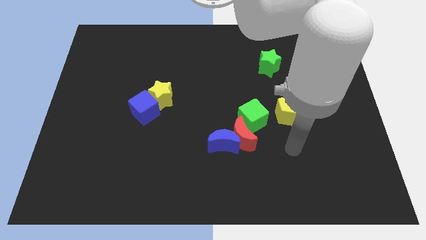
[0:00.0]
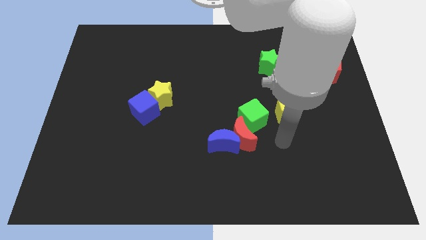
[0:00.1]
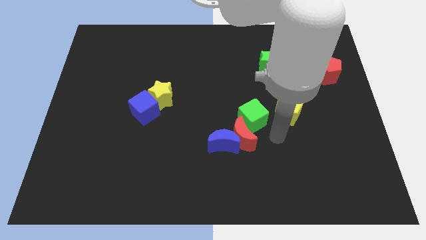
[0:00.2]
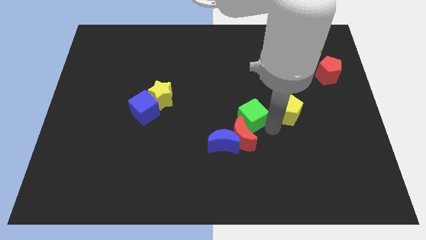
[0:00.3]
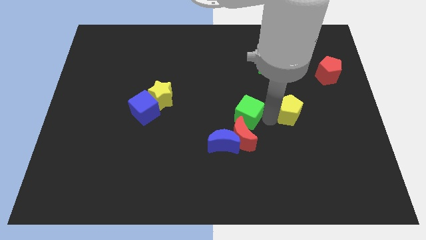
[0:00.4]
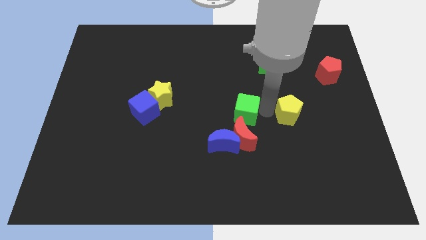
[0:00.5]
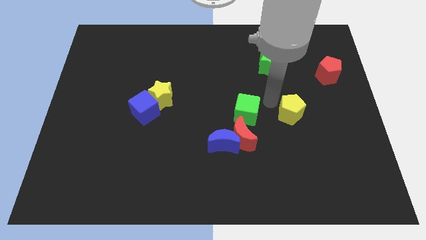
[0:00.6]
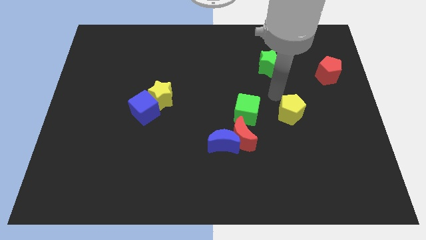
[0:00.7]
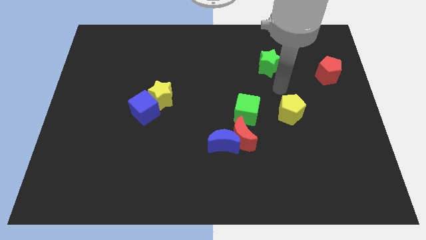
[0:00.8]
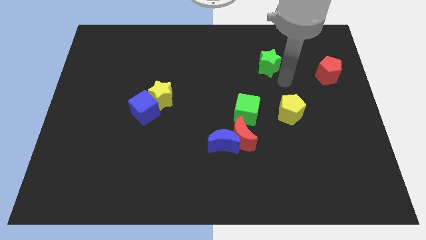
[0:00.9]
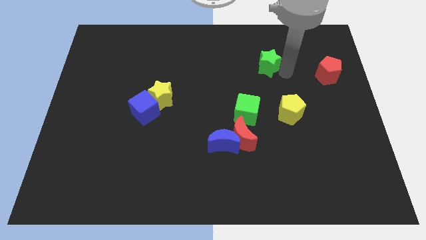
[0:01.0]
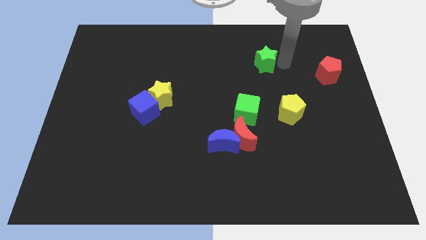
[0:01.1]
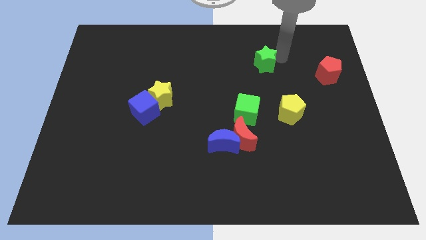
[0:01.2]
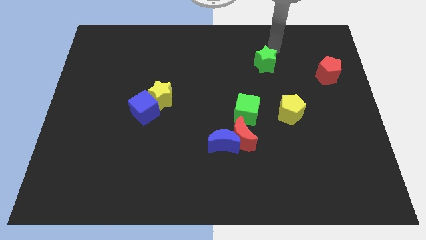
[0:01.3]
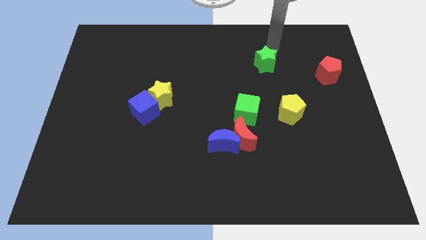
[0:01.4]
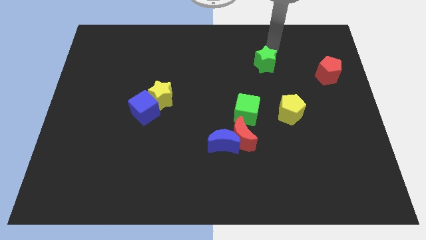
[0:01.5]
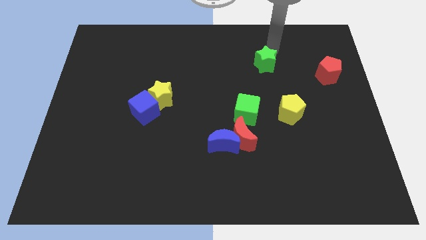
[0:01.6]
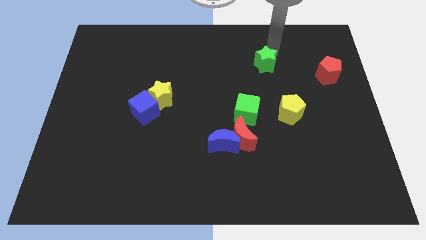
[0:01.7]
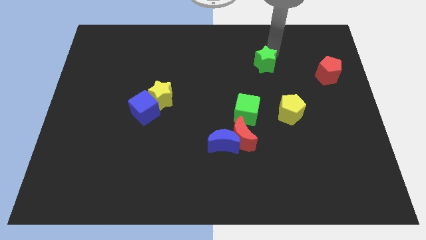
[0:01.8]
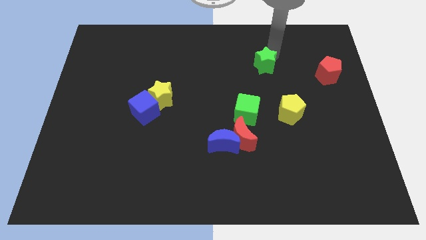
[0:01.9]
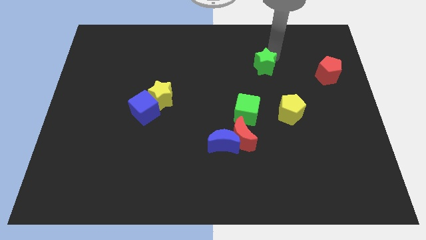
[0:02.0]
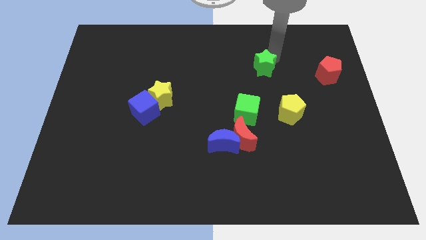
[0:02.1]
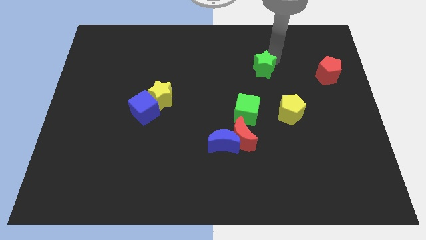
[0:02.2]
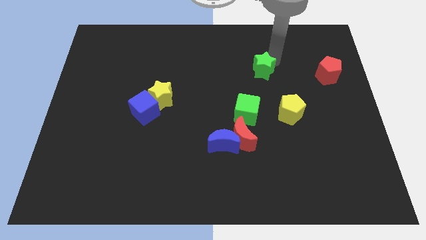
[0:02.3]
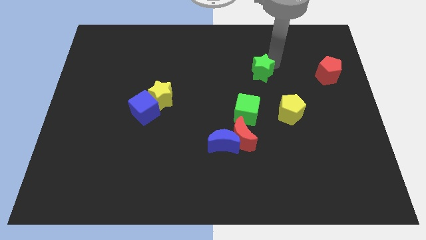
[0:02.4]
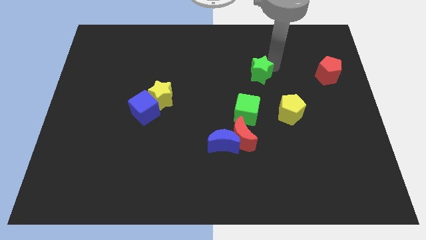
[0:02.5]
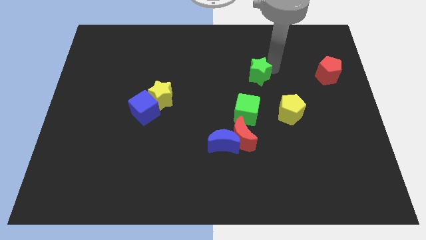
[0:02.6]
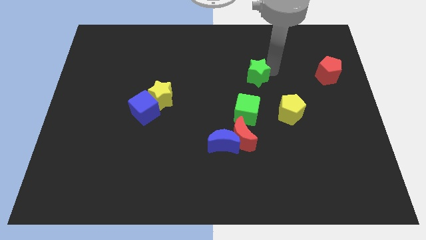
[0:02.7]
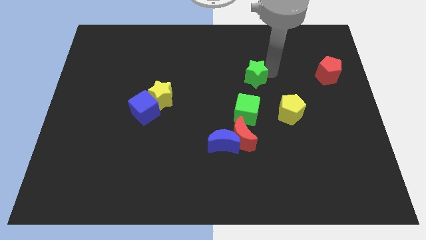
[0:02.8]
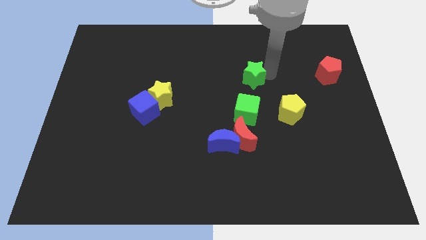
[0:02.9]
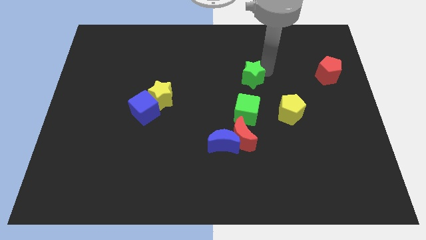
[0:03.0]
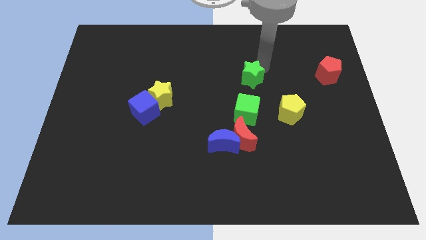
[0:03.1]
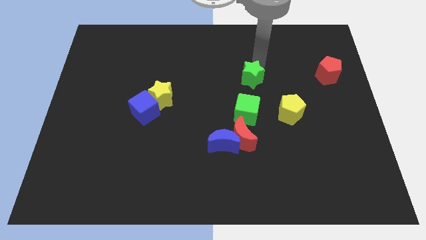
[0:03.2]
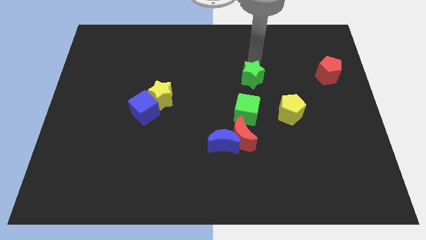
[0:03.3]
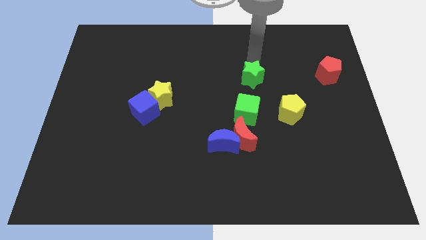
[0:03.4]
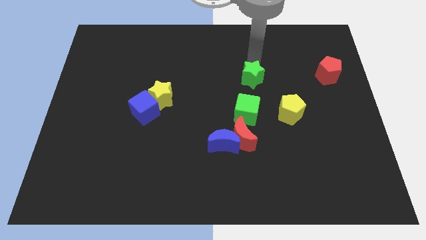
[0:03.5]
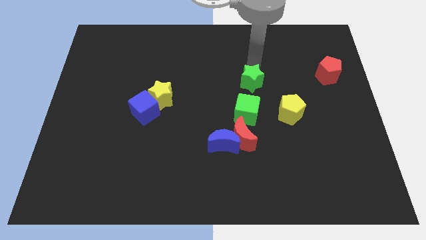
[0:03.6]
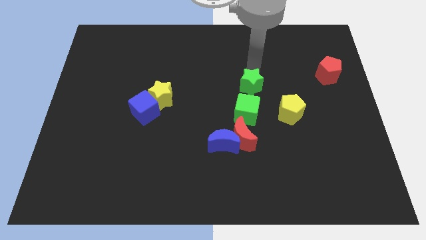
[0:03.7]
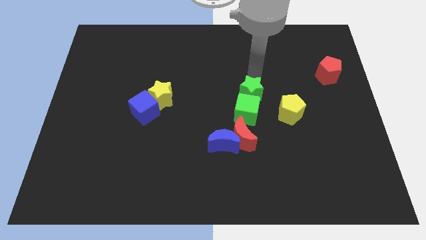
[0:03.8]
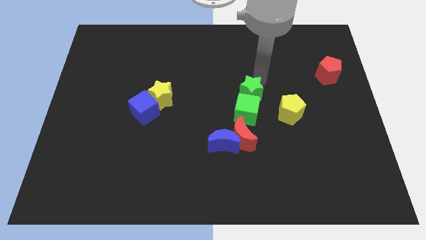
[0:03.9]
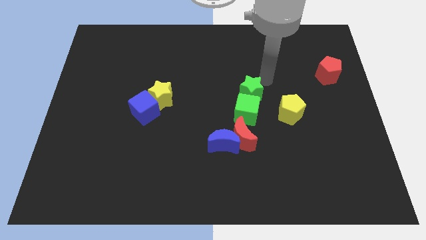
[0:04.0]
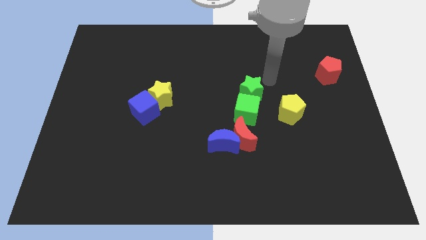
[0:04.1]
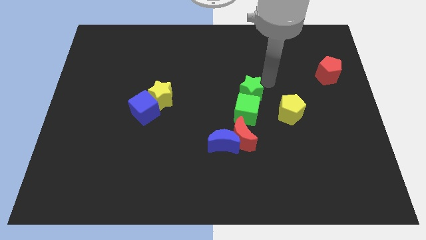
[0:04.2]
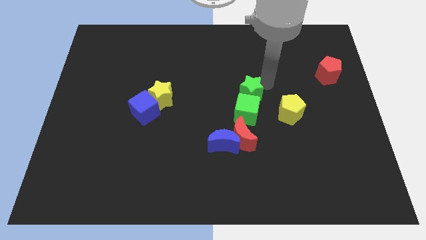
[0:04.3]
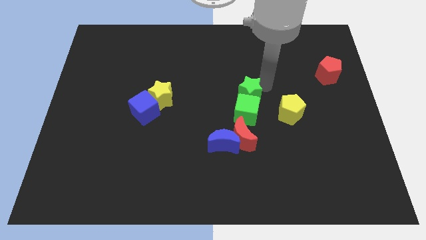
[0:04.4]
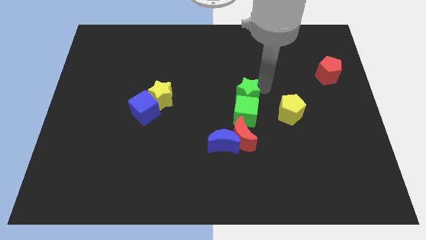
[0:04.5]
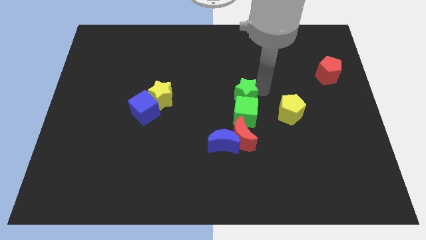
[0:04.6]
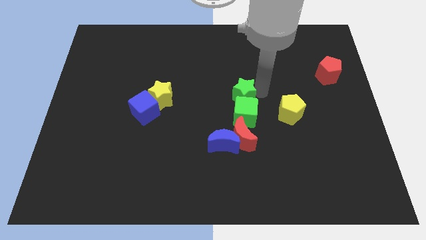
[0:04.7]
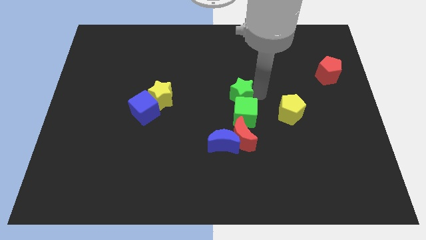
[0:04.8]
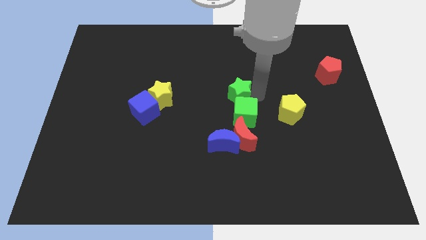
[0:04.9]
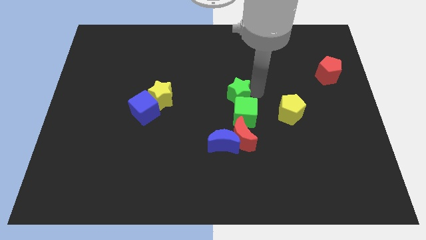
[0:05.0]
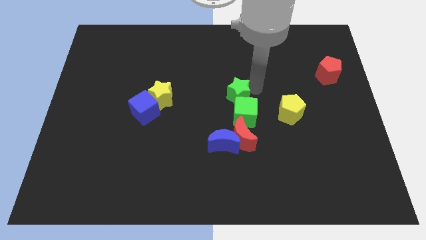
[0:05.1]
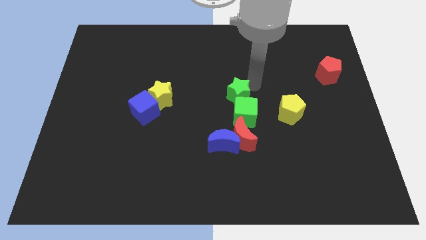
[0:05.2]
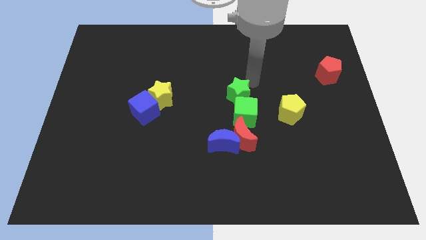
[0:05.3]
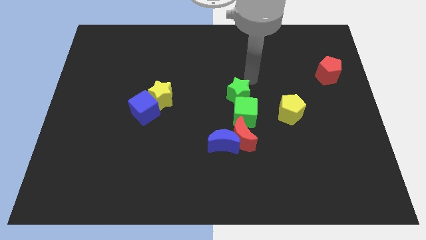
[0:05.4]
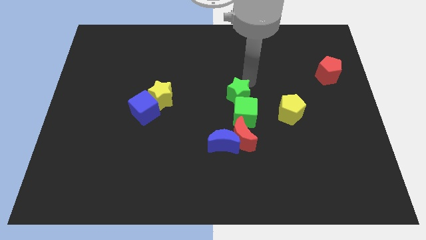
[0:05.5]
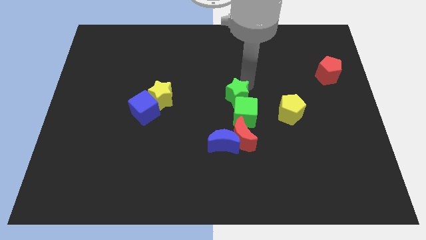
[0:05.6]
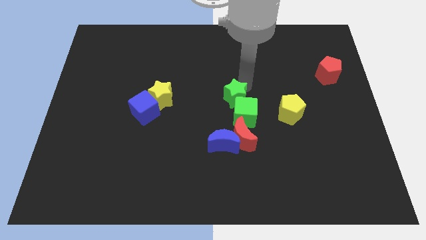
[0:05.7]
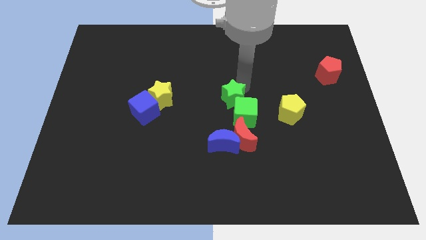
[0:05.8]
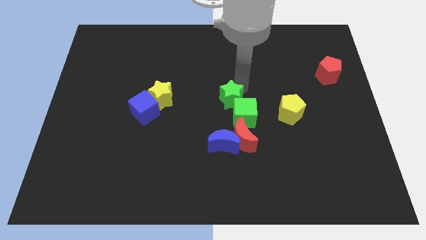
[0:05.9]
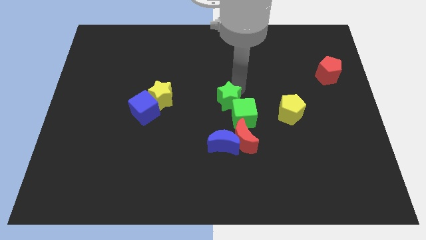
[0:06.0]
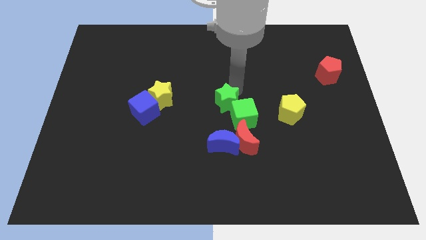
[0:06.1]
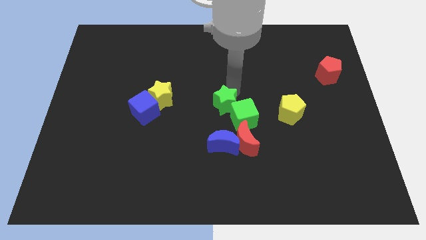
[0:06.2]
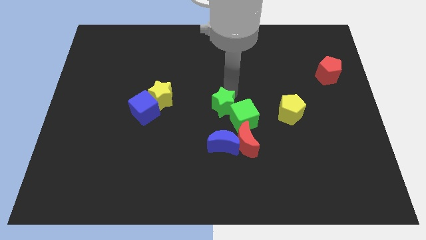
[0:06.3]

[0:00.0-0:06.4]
put the green star to the top left of the red moon

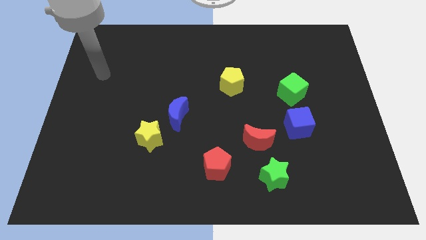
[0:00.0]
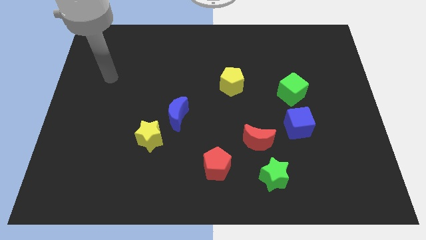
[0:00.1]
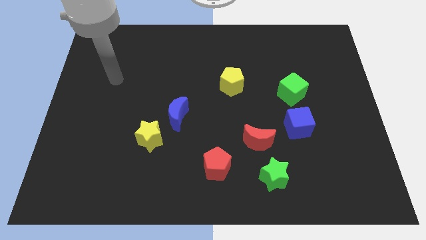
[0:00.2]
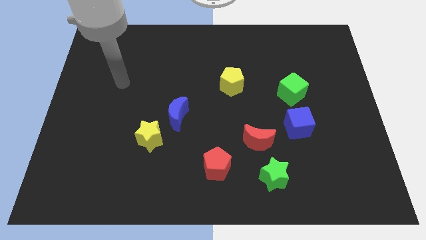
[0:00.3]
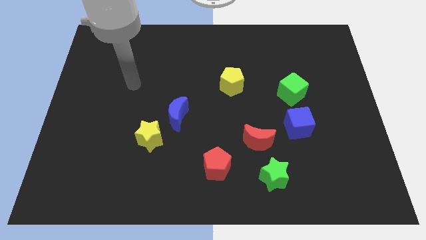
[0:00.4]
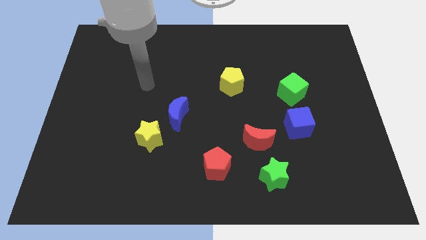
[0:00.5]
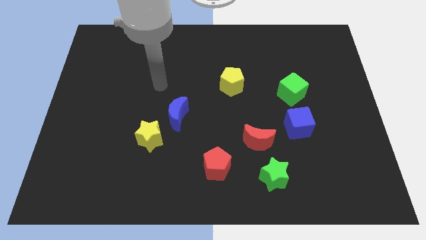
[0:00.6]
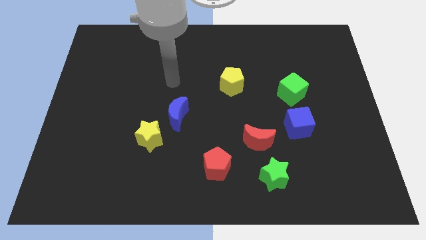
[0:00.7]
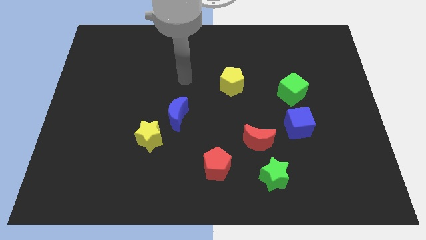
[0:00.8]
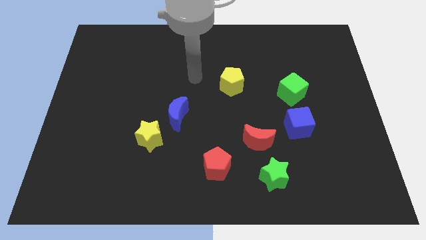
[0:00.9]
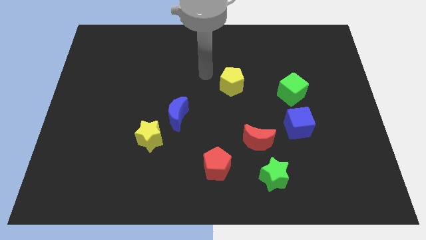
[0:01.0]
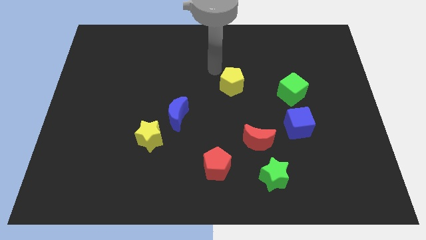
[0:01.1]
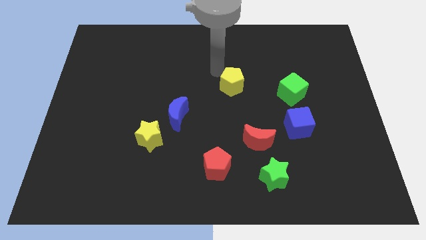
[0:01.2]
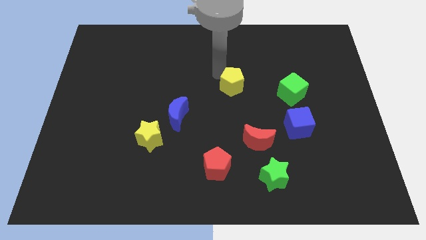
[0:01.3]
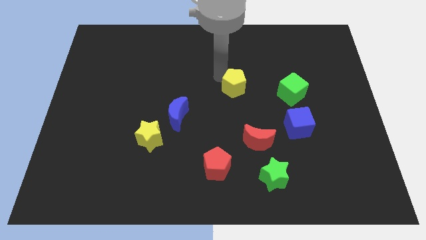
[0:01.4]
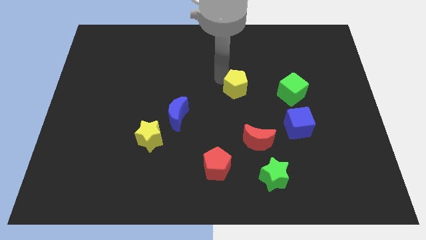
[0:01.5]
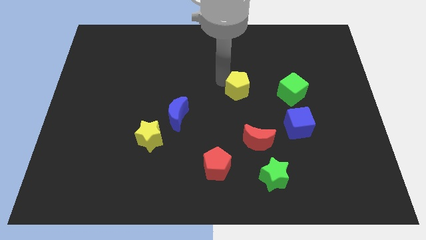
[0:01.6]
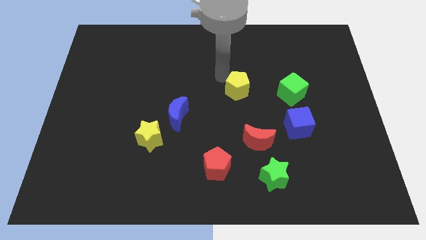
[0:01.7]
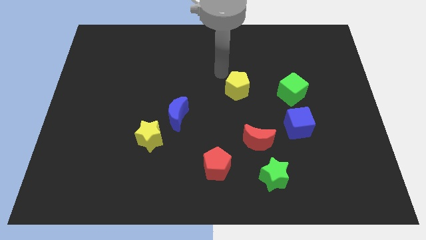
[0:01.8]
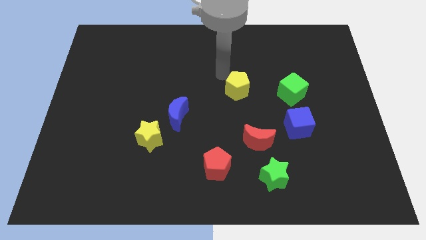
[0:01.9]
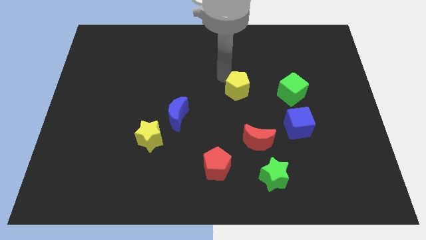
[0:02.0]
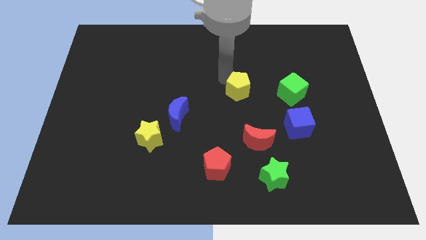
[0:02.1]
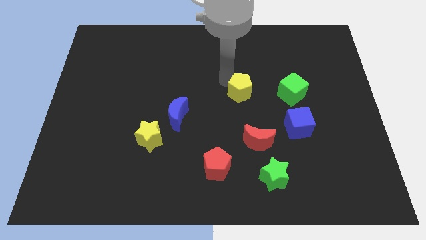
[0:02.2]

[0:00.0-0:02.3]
put the yellow pentagon to the top of the red moon
